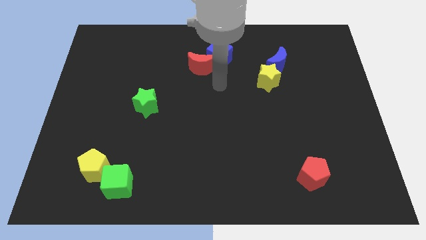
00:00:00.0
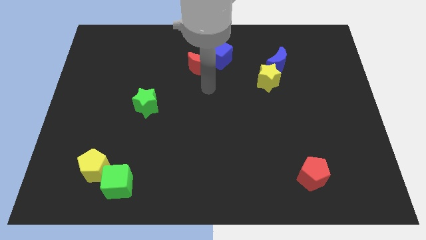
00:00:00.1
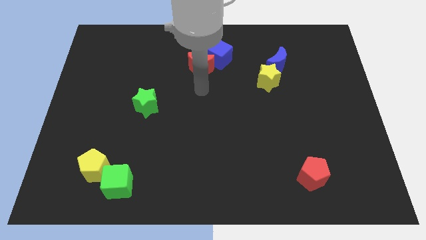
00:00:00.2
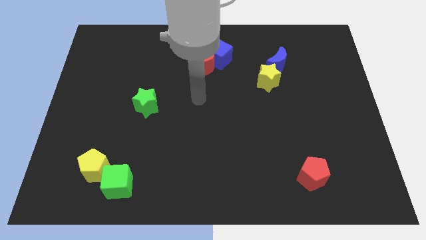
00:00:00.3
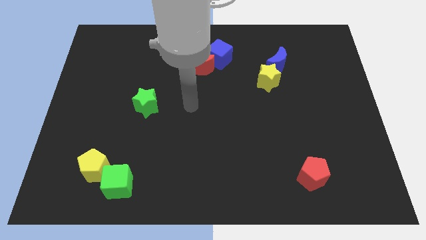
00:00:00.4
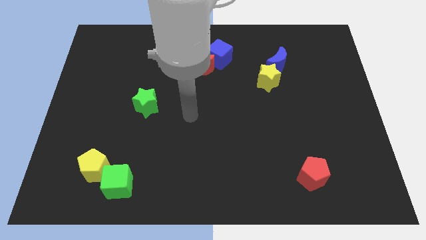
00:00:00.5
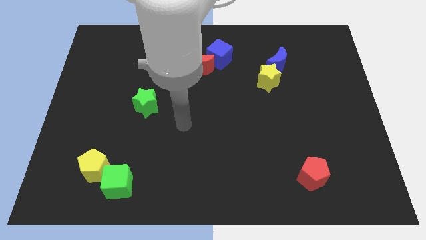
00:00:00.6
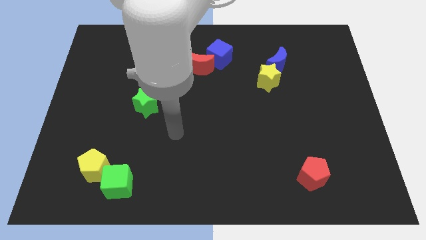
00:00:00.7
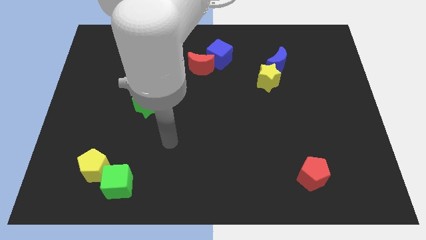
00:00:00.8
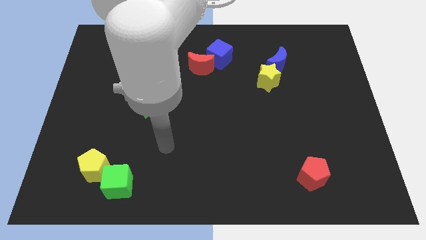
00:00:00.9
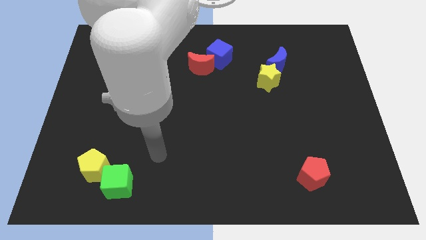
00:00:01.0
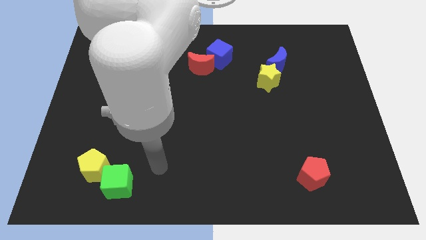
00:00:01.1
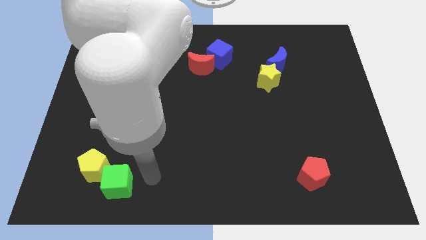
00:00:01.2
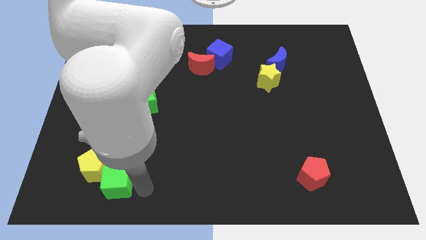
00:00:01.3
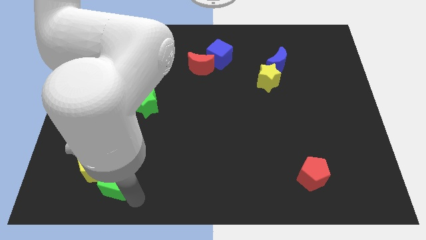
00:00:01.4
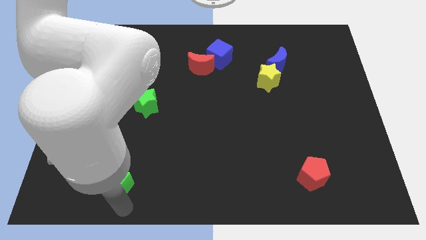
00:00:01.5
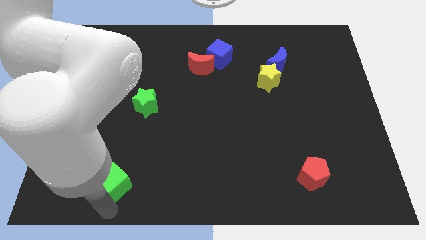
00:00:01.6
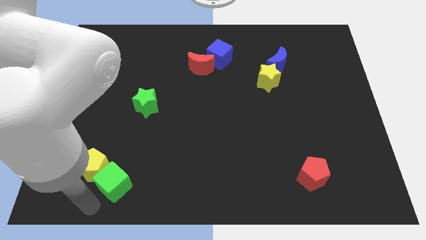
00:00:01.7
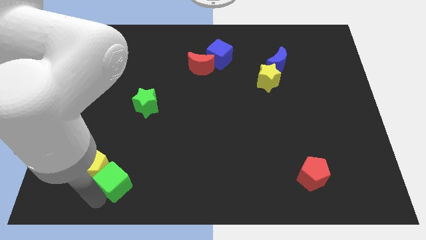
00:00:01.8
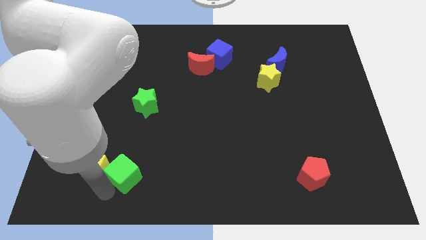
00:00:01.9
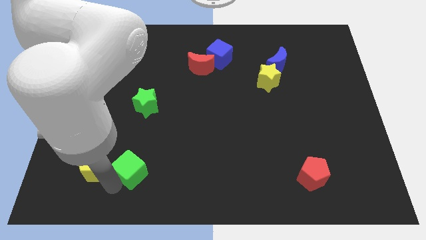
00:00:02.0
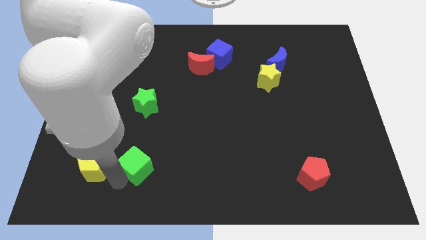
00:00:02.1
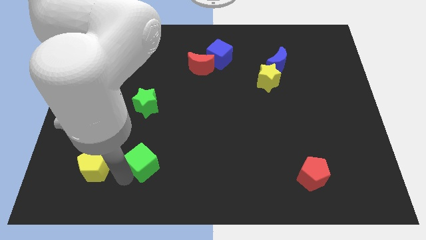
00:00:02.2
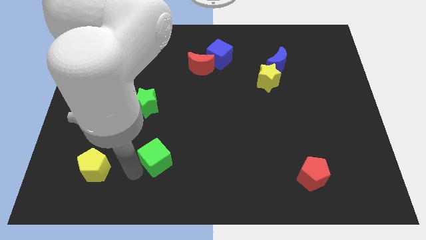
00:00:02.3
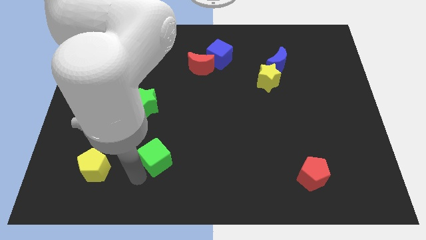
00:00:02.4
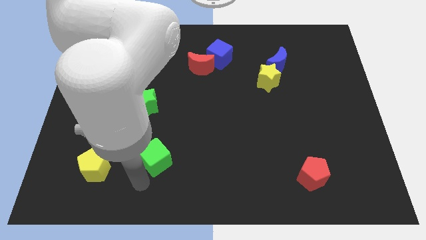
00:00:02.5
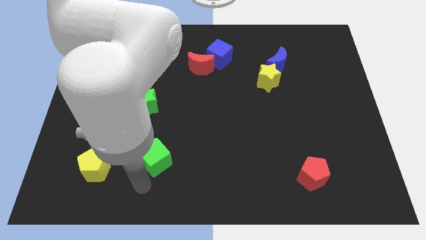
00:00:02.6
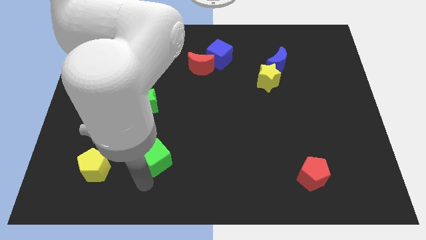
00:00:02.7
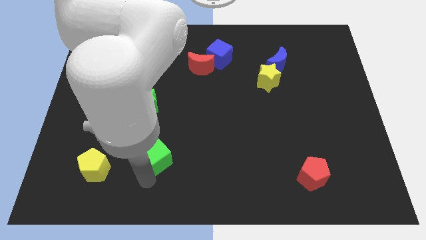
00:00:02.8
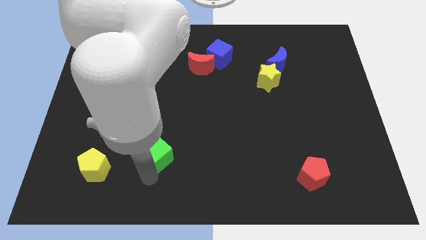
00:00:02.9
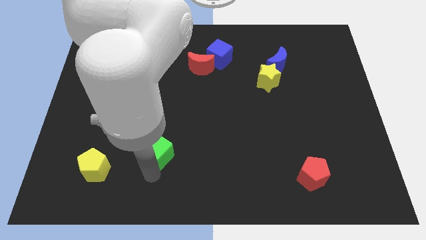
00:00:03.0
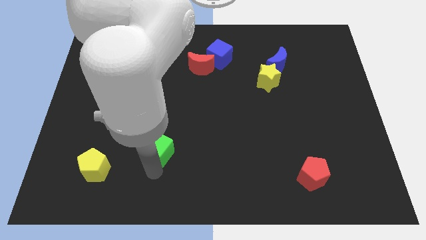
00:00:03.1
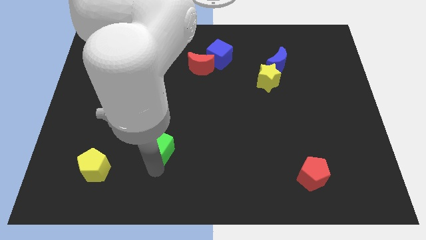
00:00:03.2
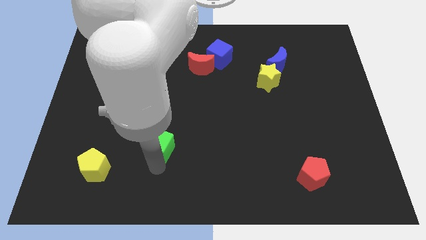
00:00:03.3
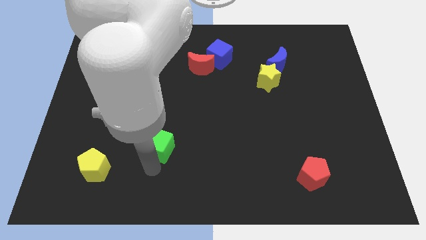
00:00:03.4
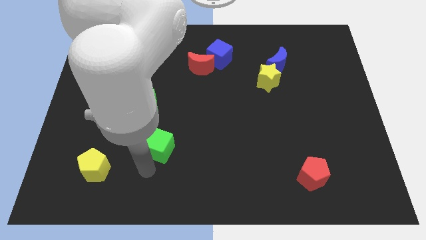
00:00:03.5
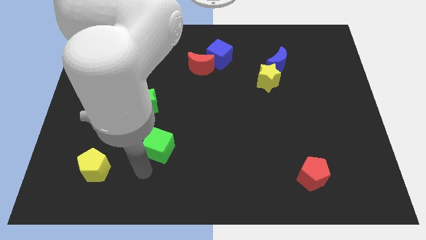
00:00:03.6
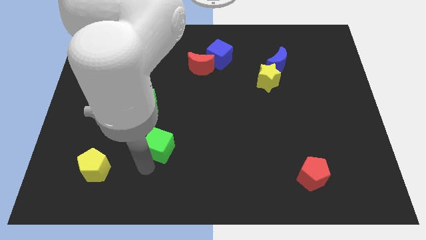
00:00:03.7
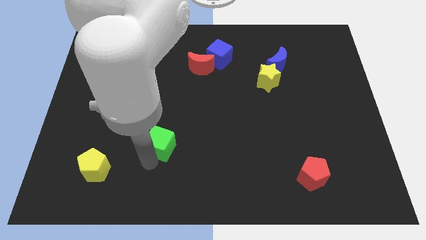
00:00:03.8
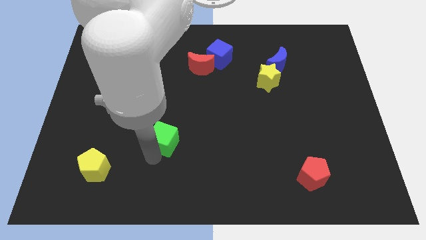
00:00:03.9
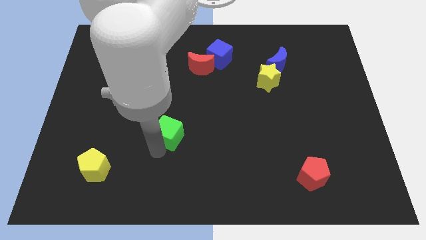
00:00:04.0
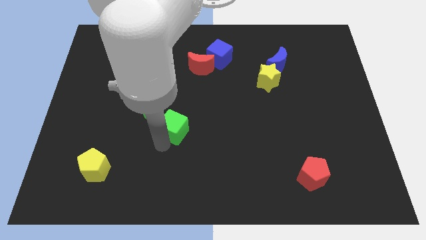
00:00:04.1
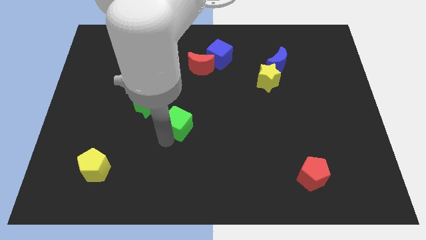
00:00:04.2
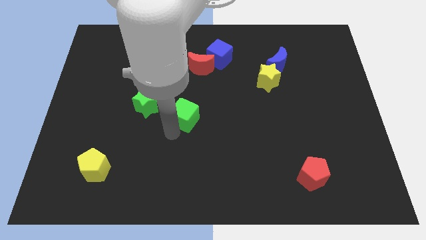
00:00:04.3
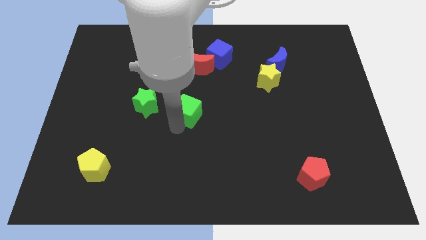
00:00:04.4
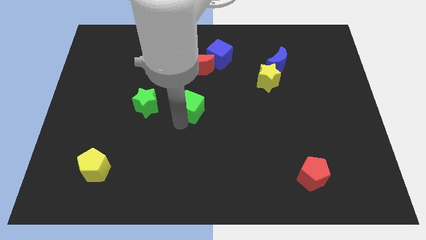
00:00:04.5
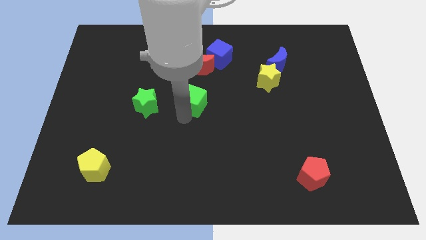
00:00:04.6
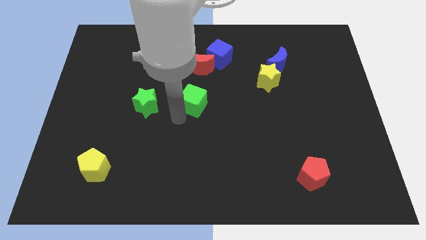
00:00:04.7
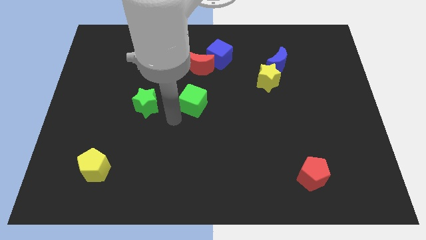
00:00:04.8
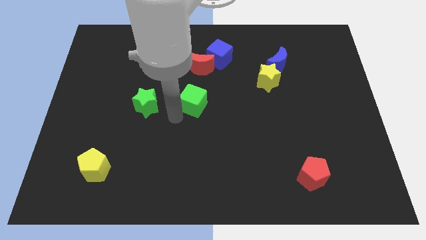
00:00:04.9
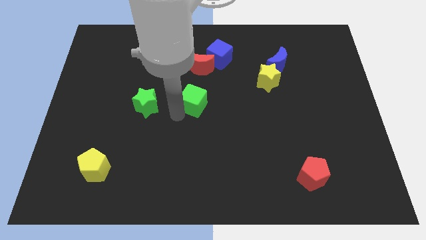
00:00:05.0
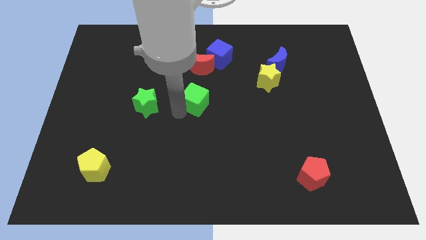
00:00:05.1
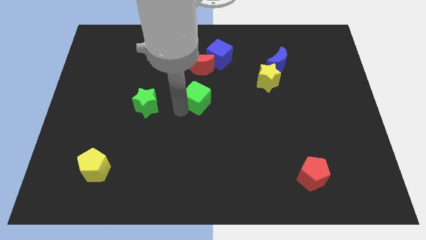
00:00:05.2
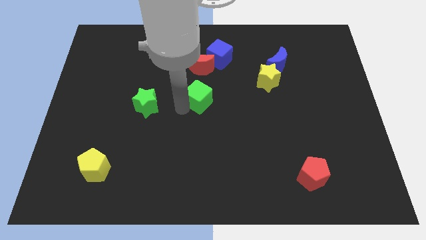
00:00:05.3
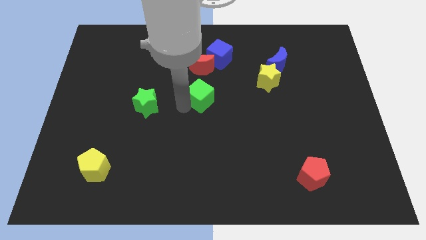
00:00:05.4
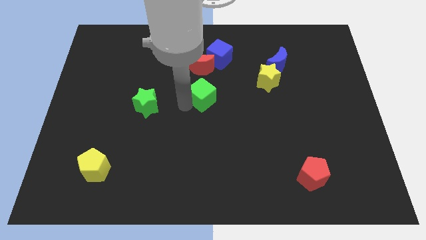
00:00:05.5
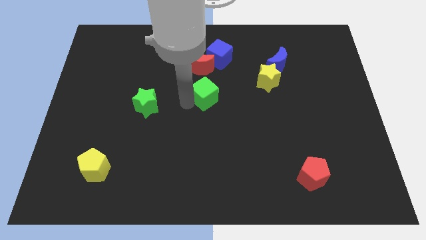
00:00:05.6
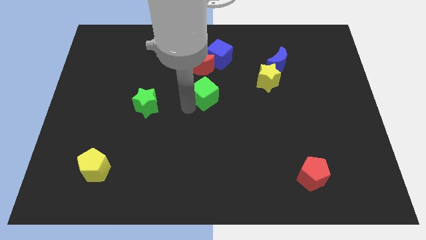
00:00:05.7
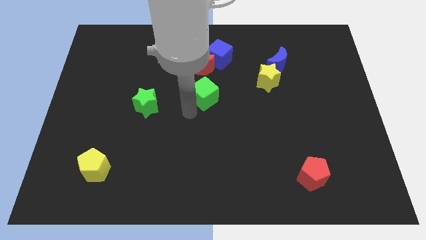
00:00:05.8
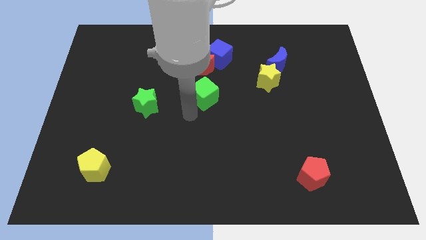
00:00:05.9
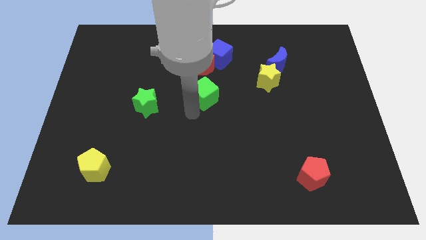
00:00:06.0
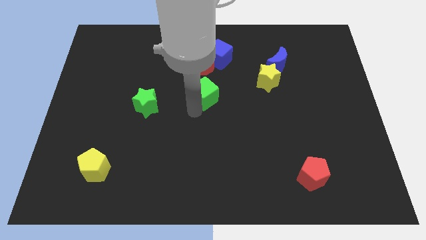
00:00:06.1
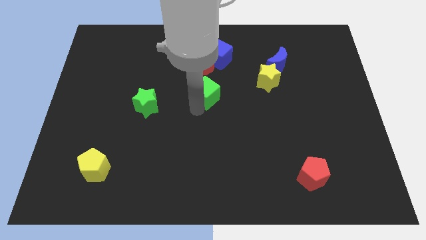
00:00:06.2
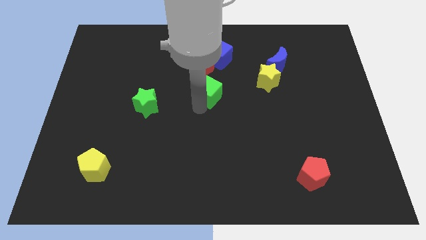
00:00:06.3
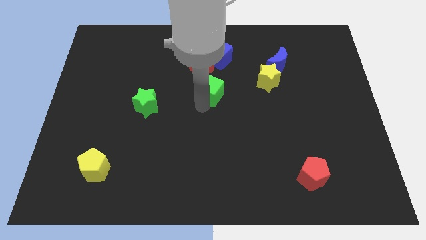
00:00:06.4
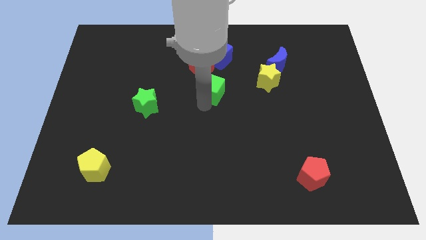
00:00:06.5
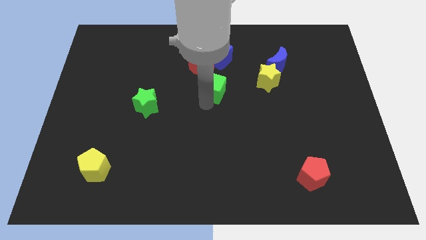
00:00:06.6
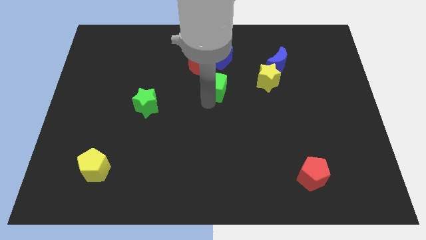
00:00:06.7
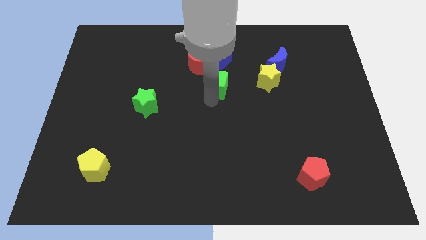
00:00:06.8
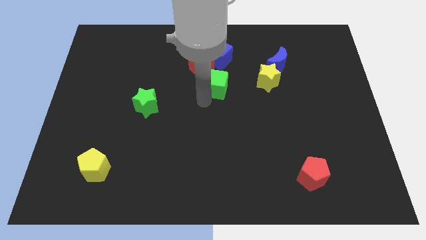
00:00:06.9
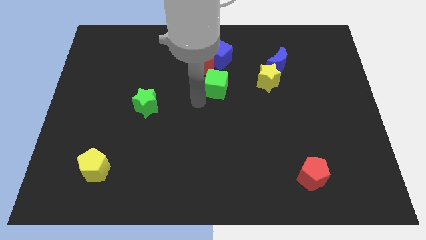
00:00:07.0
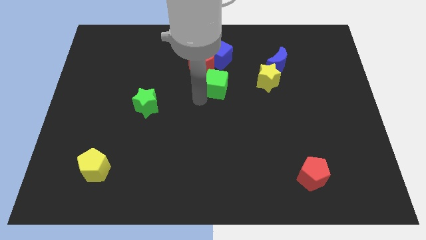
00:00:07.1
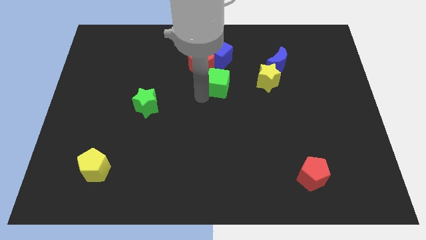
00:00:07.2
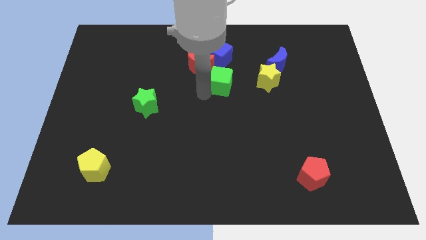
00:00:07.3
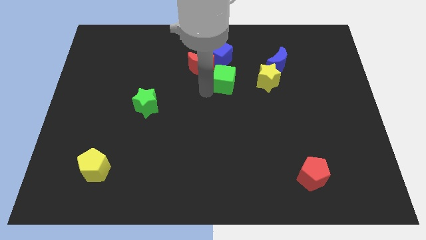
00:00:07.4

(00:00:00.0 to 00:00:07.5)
push the green cube to the right of the red moon
